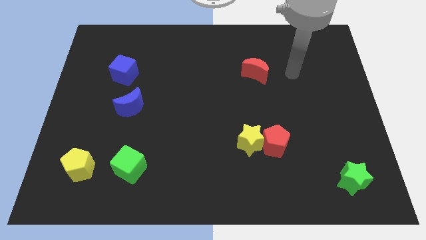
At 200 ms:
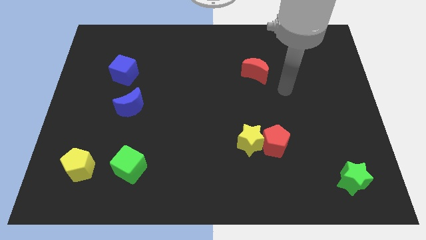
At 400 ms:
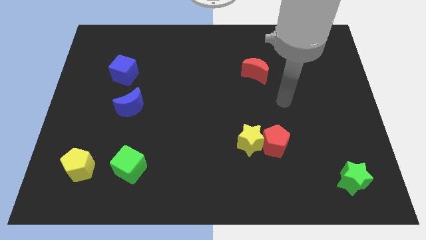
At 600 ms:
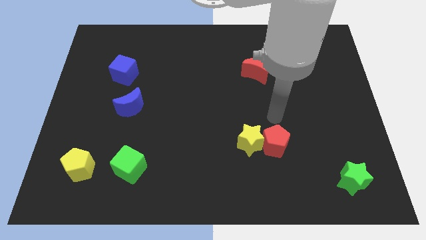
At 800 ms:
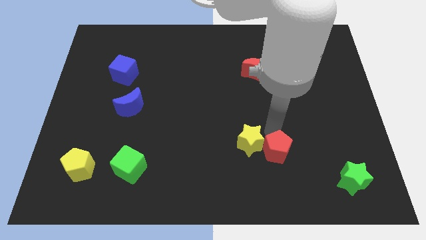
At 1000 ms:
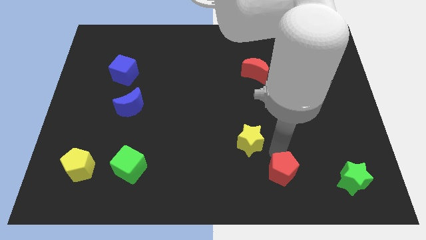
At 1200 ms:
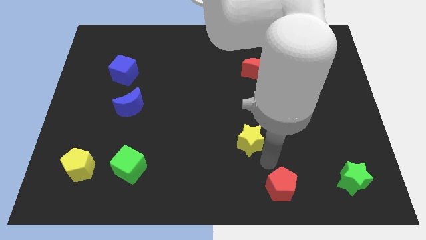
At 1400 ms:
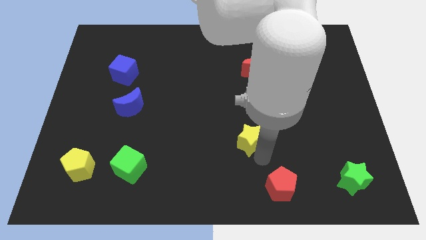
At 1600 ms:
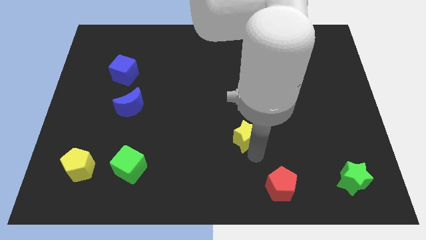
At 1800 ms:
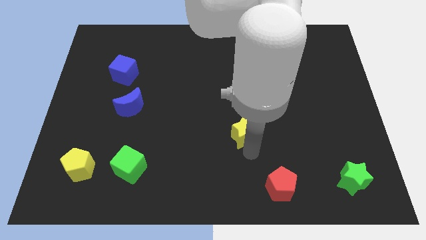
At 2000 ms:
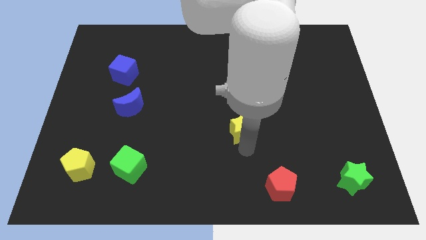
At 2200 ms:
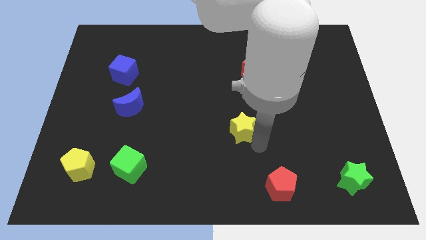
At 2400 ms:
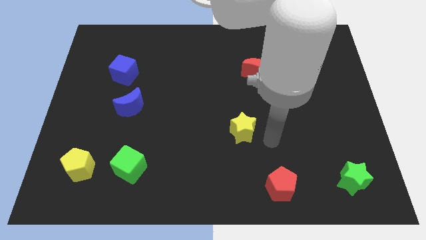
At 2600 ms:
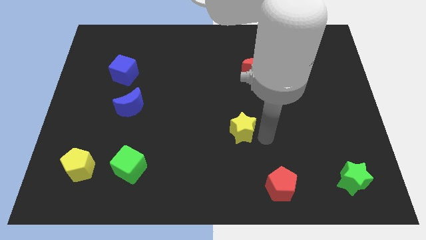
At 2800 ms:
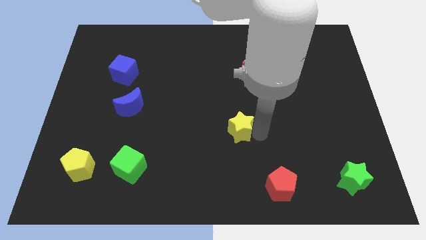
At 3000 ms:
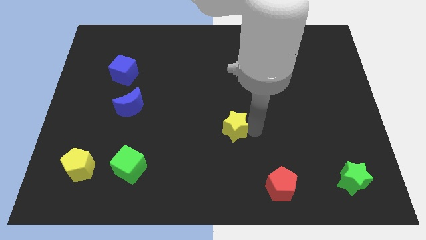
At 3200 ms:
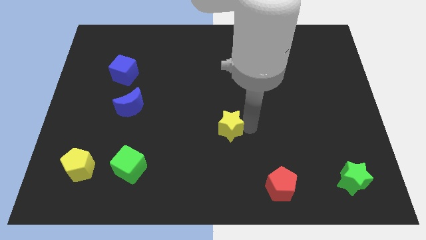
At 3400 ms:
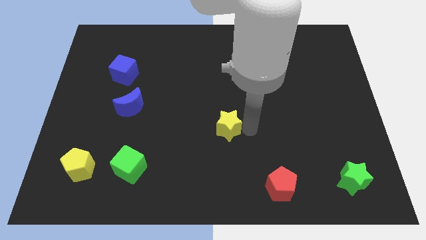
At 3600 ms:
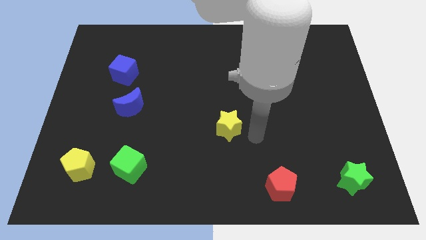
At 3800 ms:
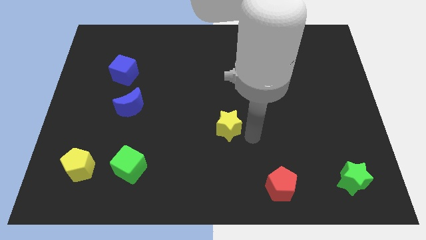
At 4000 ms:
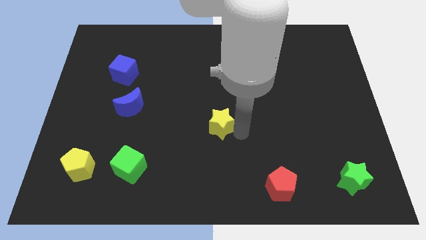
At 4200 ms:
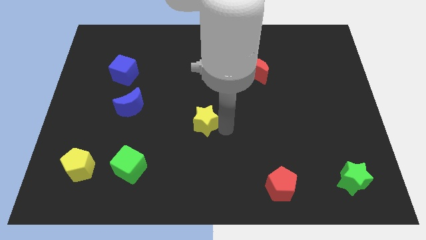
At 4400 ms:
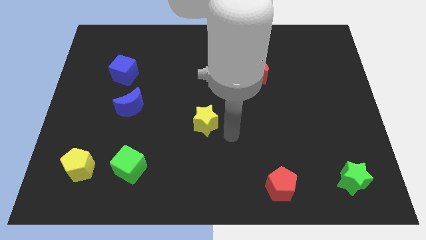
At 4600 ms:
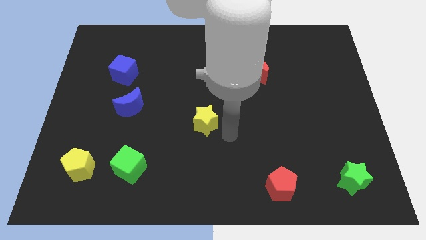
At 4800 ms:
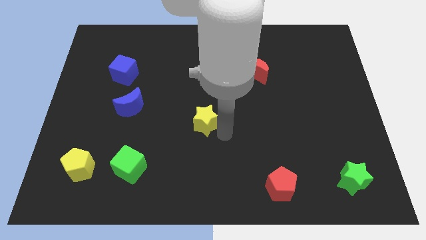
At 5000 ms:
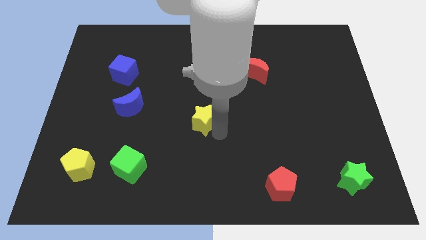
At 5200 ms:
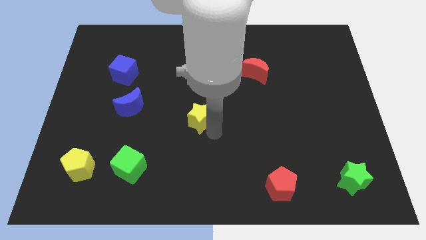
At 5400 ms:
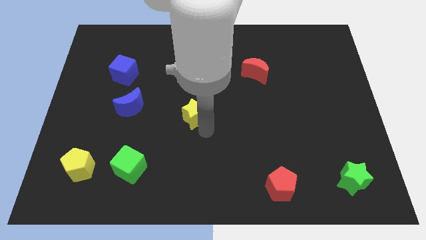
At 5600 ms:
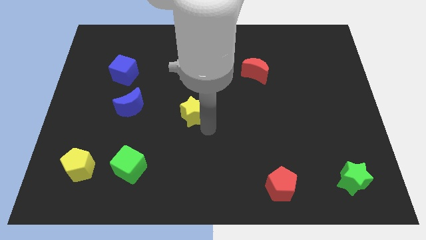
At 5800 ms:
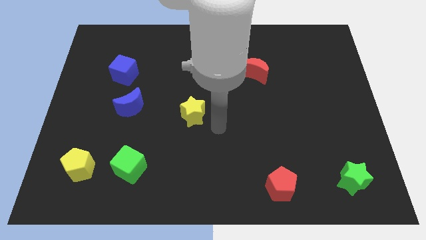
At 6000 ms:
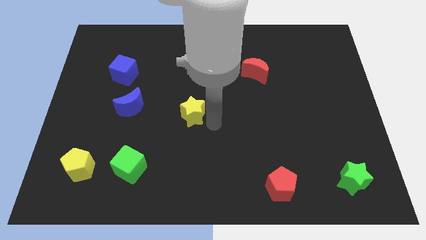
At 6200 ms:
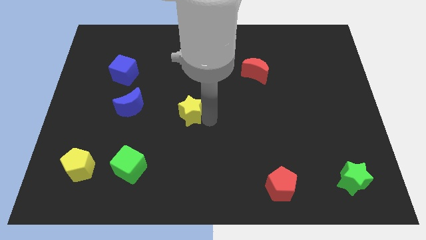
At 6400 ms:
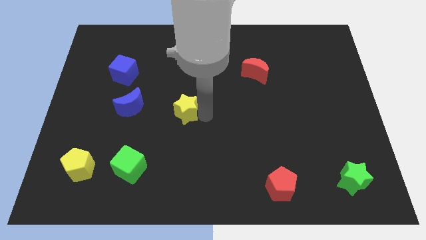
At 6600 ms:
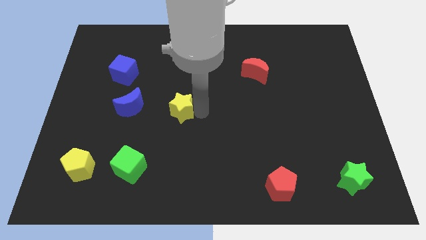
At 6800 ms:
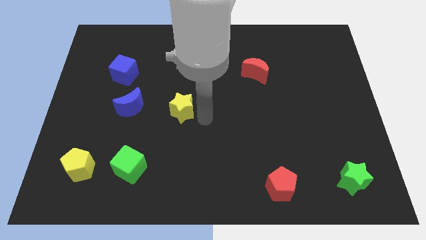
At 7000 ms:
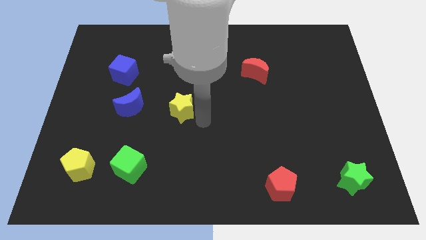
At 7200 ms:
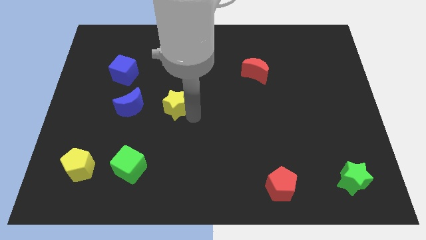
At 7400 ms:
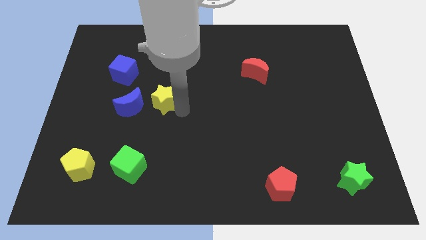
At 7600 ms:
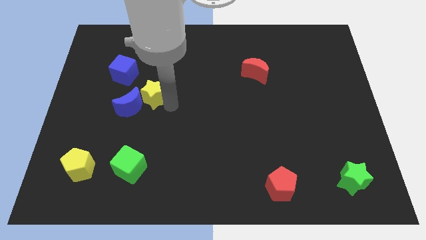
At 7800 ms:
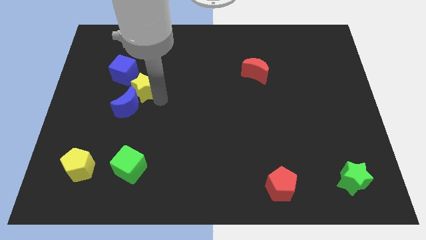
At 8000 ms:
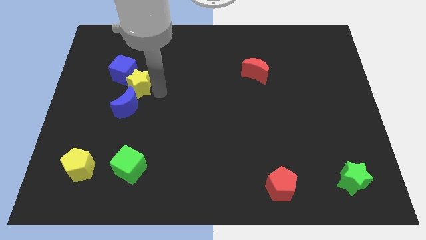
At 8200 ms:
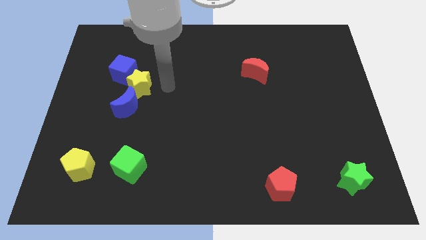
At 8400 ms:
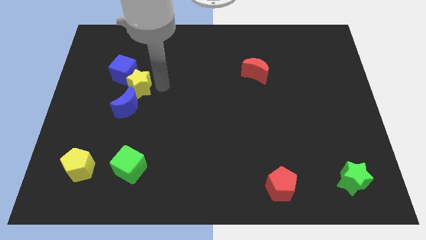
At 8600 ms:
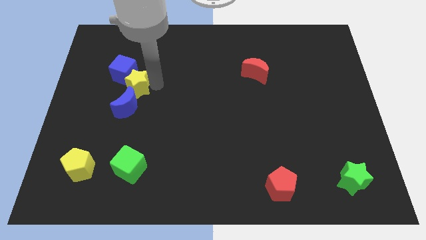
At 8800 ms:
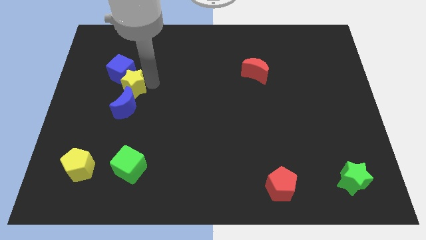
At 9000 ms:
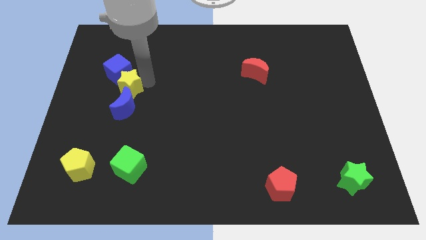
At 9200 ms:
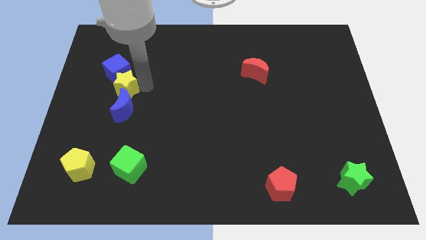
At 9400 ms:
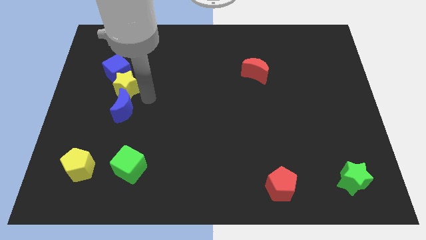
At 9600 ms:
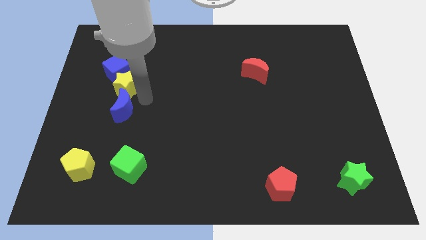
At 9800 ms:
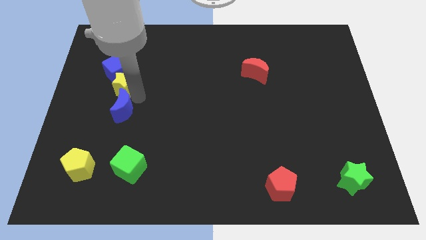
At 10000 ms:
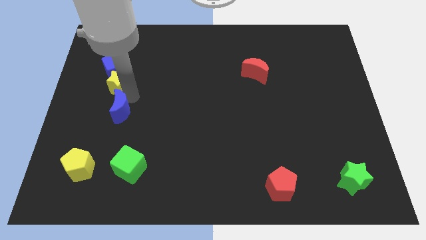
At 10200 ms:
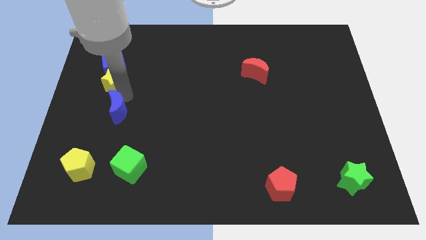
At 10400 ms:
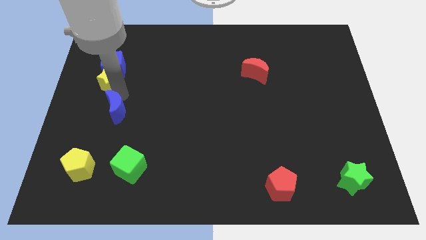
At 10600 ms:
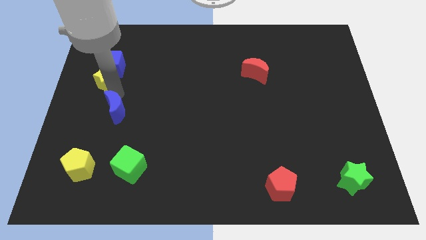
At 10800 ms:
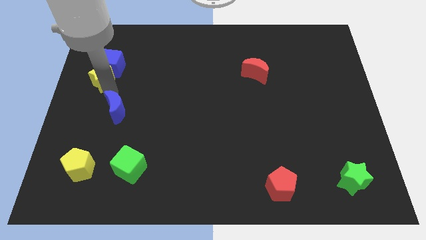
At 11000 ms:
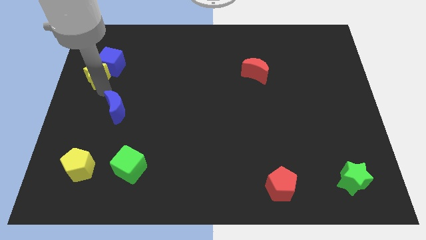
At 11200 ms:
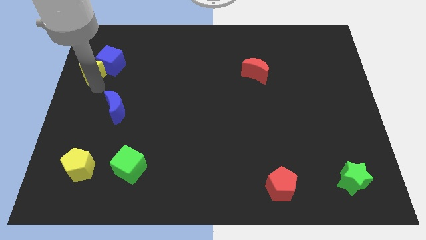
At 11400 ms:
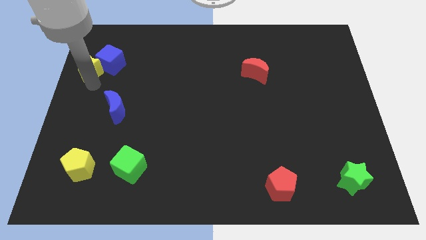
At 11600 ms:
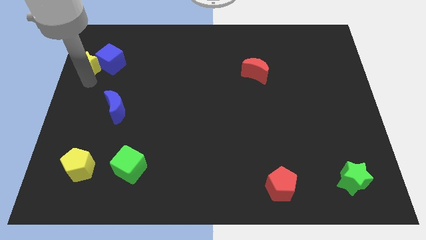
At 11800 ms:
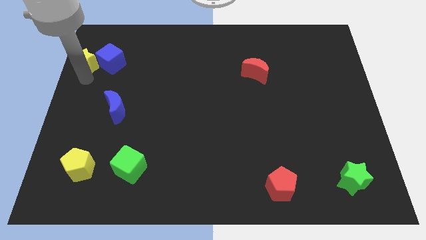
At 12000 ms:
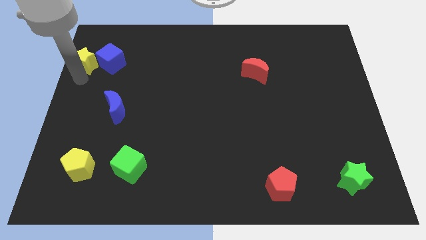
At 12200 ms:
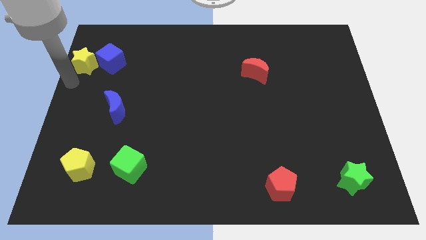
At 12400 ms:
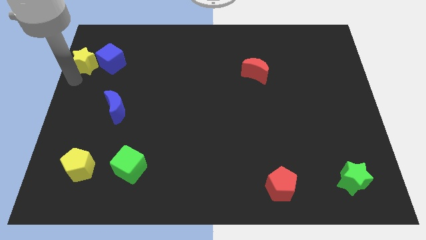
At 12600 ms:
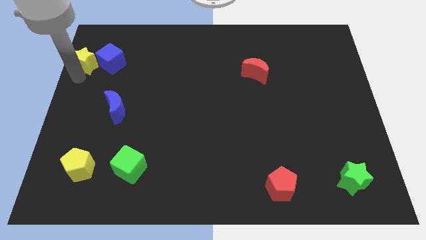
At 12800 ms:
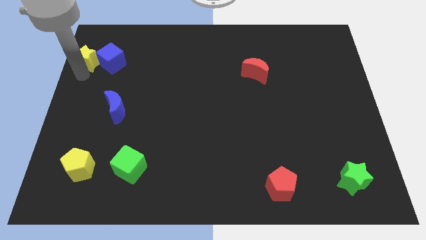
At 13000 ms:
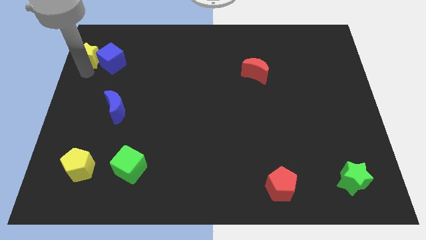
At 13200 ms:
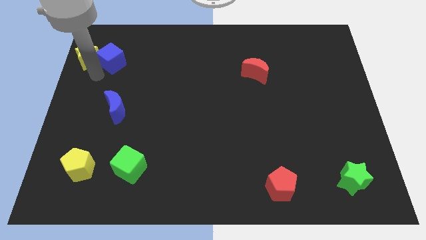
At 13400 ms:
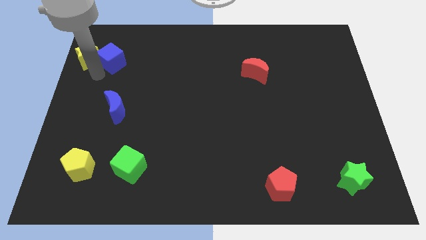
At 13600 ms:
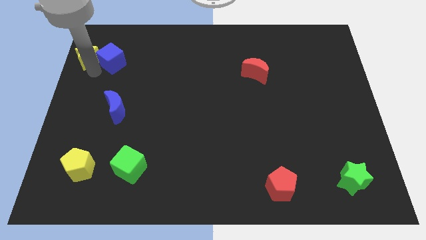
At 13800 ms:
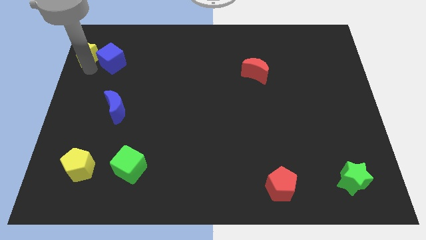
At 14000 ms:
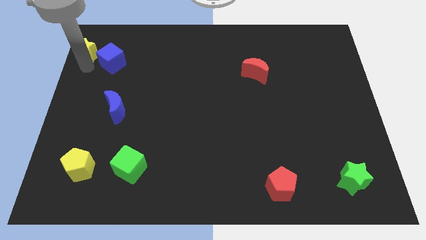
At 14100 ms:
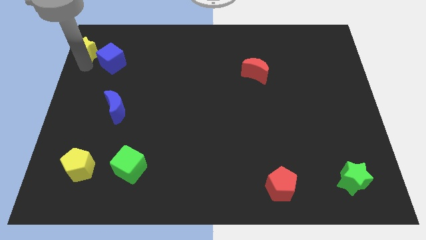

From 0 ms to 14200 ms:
move the yellow star to the upper left corner
